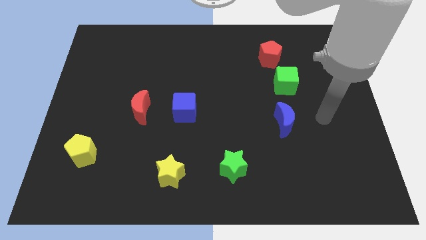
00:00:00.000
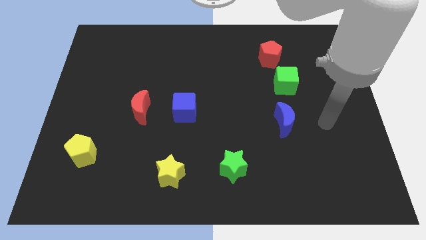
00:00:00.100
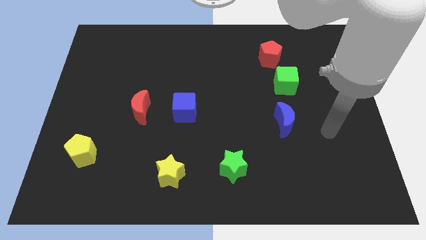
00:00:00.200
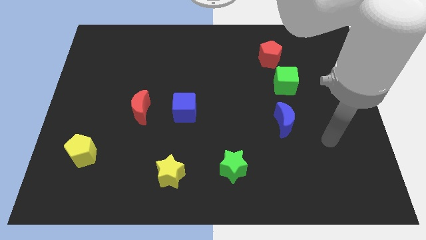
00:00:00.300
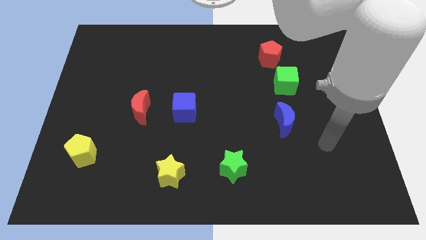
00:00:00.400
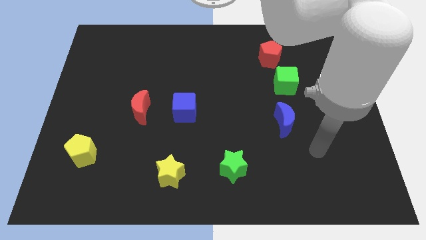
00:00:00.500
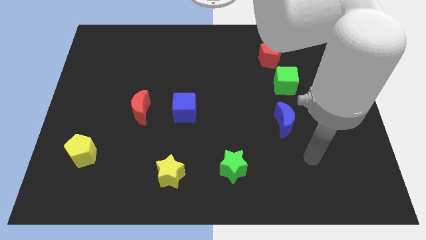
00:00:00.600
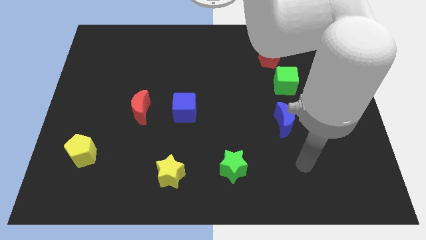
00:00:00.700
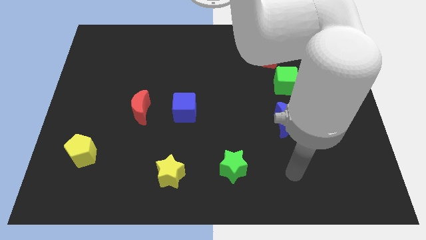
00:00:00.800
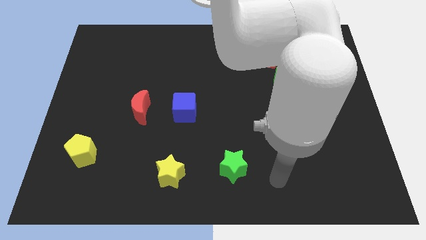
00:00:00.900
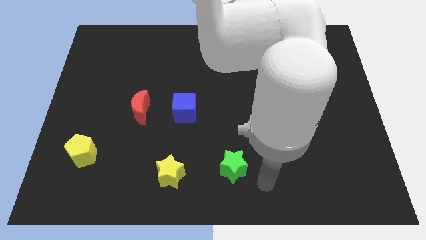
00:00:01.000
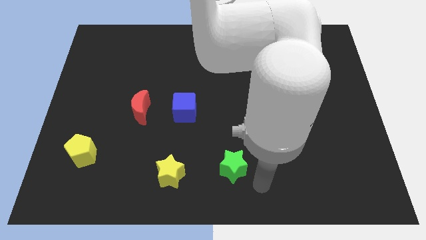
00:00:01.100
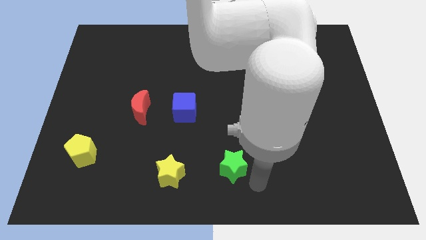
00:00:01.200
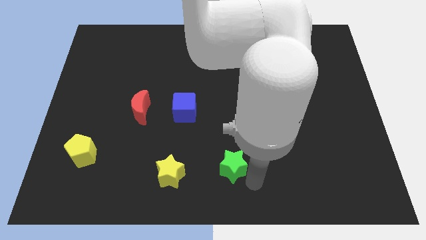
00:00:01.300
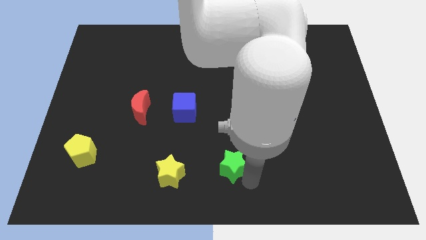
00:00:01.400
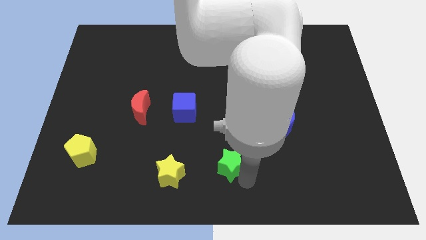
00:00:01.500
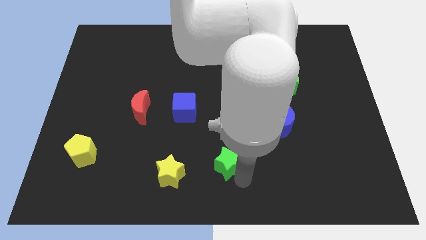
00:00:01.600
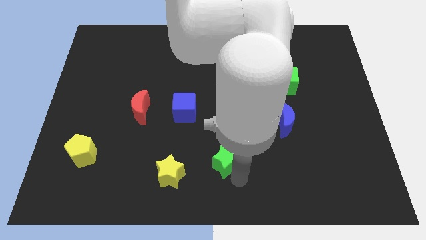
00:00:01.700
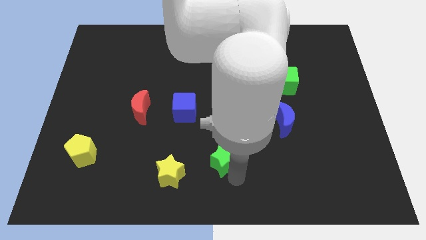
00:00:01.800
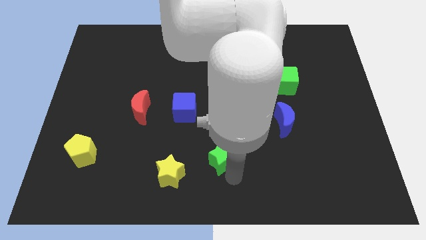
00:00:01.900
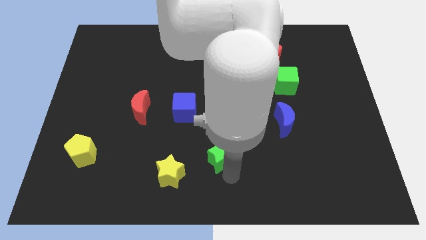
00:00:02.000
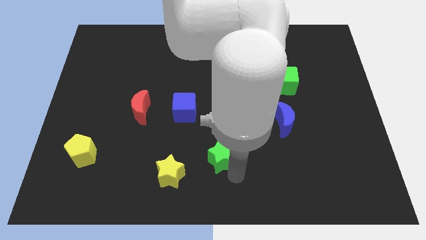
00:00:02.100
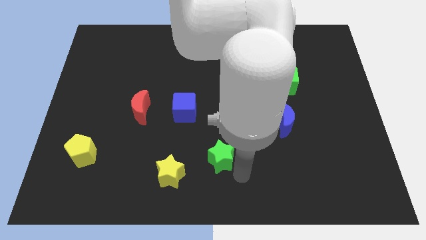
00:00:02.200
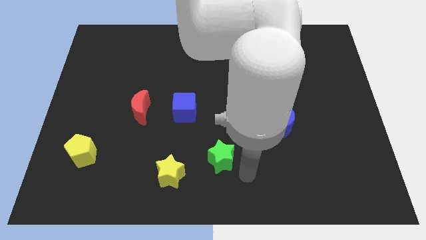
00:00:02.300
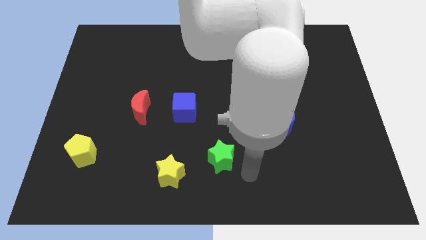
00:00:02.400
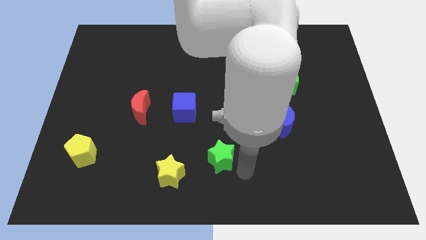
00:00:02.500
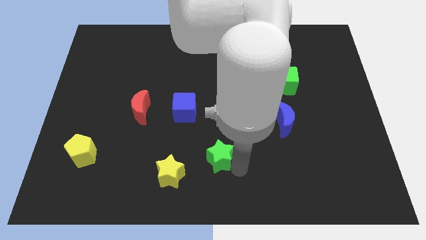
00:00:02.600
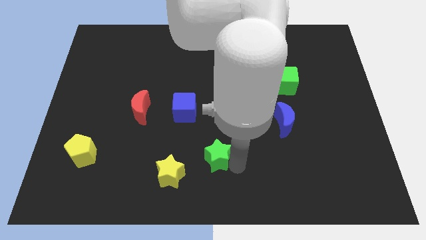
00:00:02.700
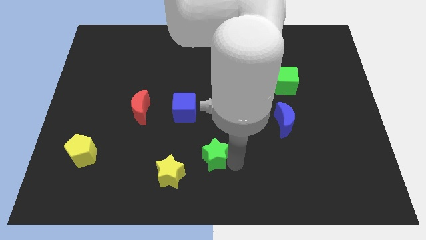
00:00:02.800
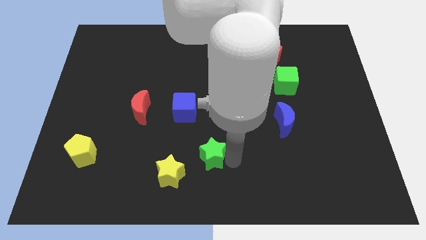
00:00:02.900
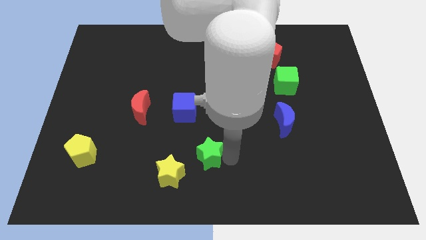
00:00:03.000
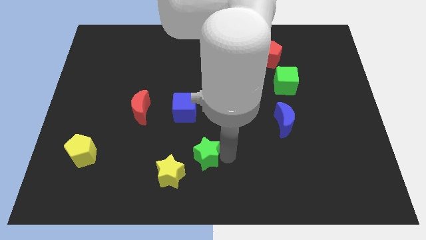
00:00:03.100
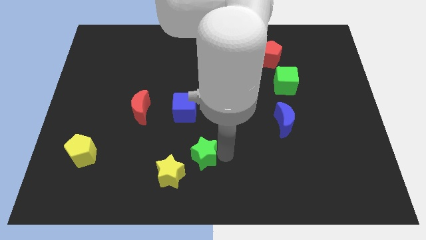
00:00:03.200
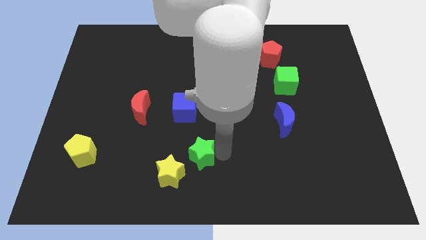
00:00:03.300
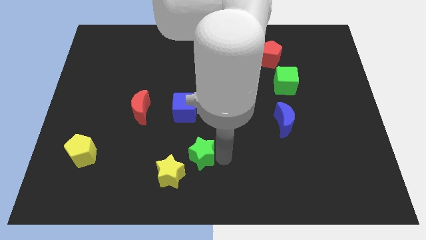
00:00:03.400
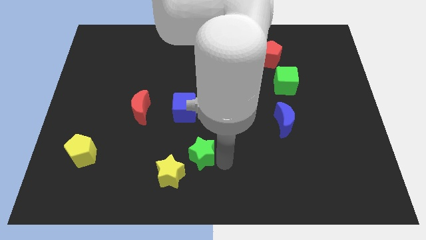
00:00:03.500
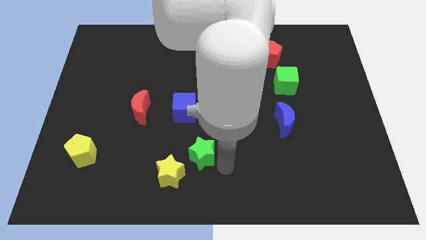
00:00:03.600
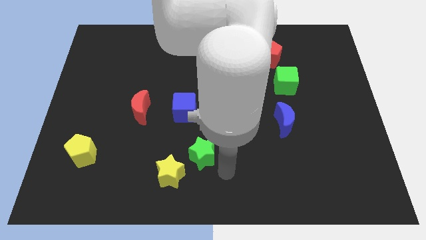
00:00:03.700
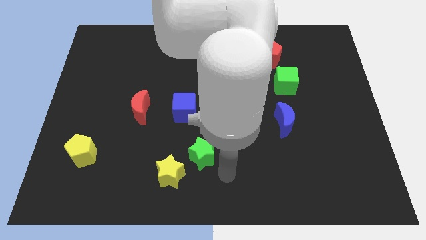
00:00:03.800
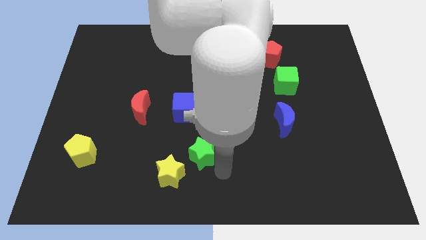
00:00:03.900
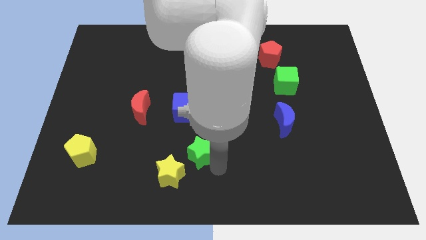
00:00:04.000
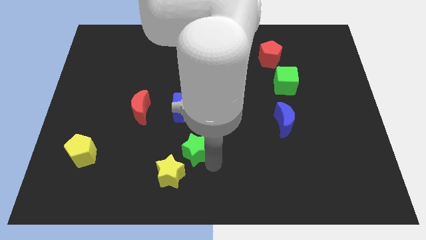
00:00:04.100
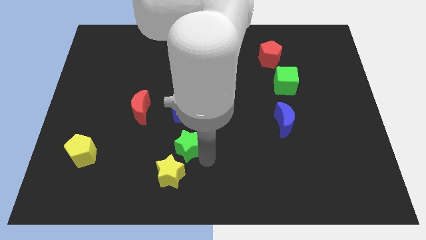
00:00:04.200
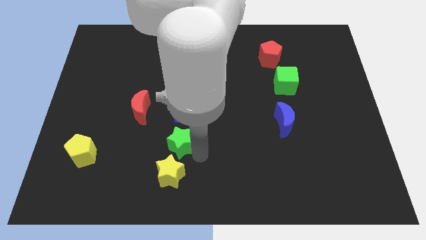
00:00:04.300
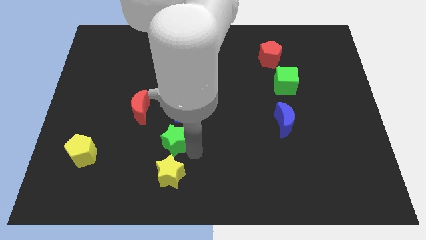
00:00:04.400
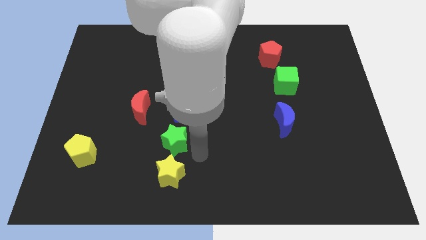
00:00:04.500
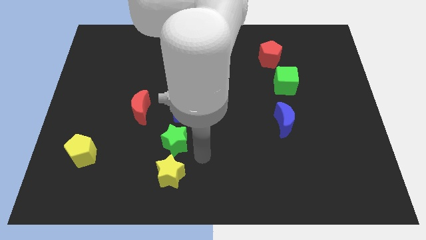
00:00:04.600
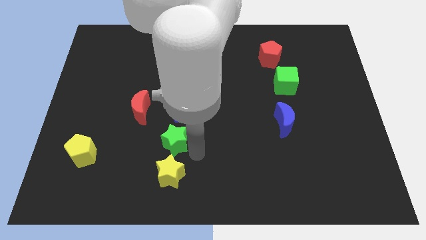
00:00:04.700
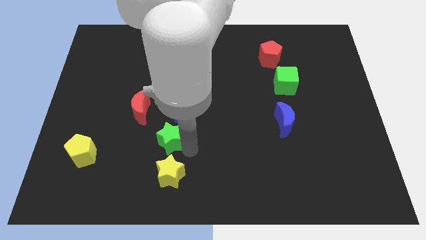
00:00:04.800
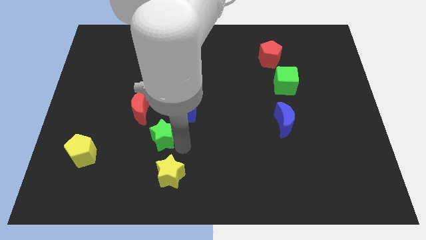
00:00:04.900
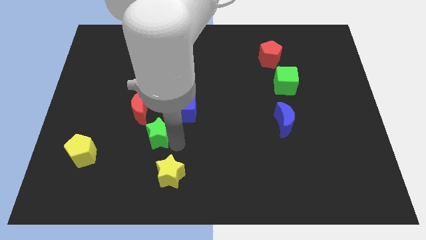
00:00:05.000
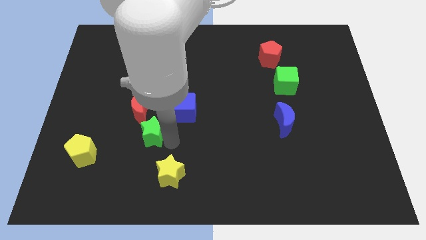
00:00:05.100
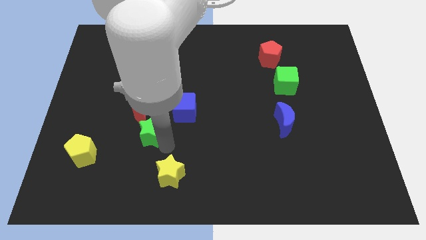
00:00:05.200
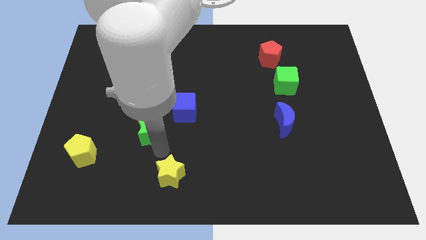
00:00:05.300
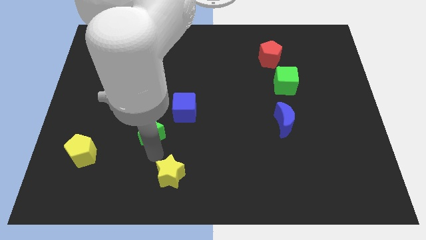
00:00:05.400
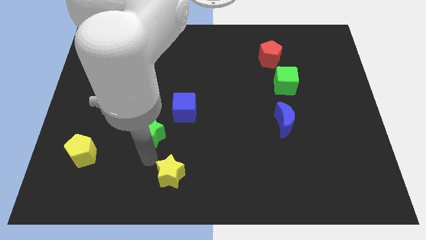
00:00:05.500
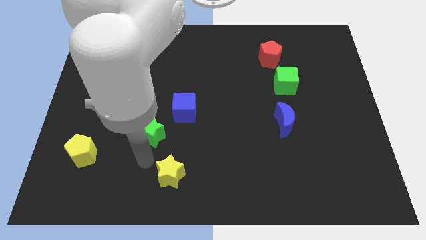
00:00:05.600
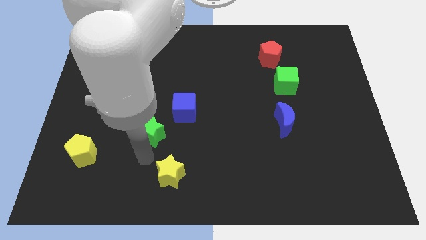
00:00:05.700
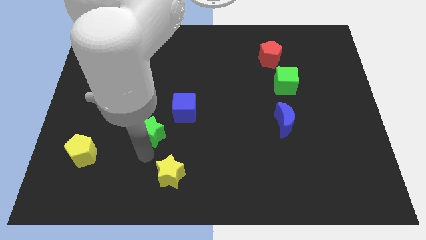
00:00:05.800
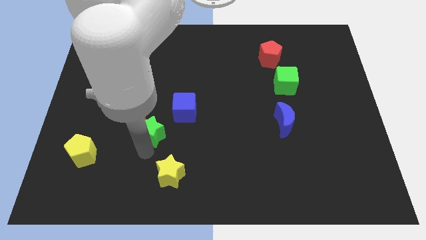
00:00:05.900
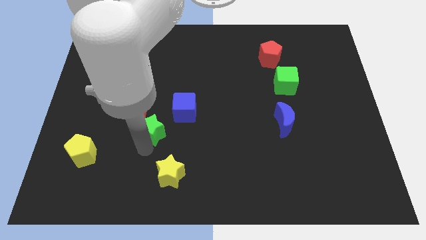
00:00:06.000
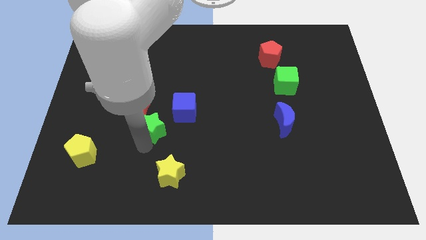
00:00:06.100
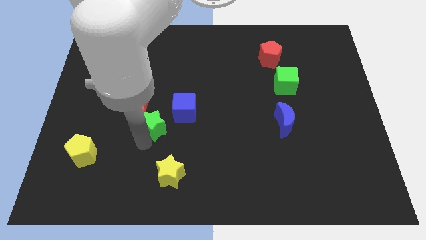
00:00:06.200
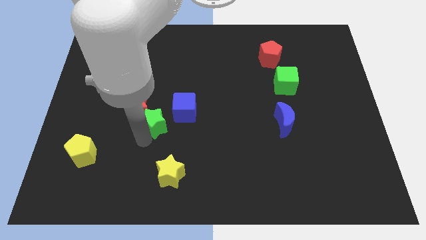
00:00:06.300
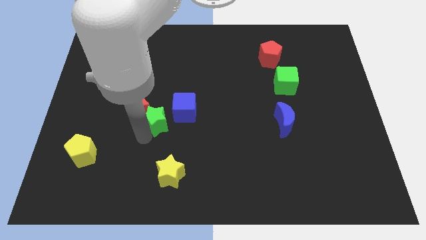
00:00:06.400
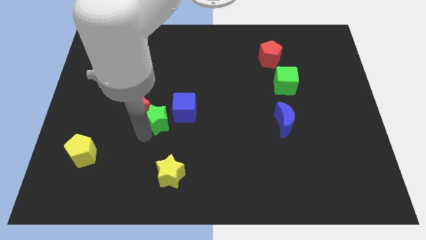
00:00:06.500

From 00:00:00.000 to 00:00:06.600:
push the green star up and left

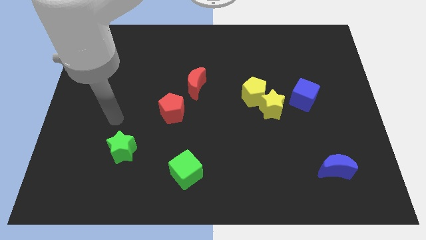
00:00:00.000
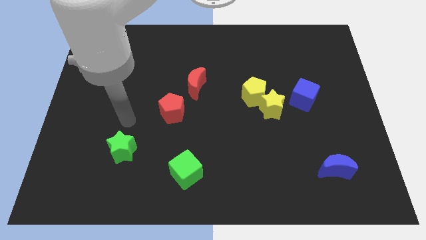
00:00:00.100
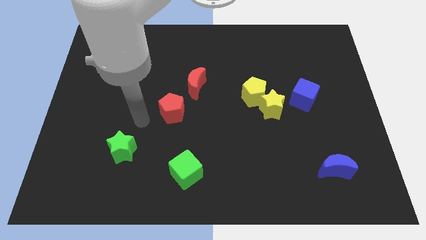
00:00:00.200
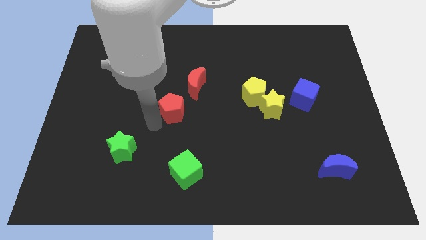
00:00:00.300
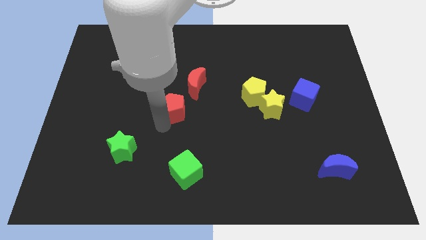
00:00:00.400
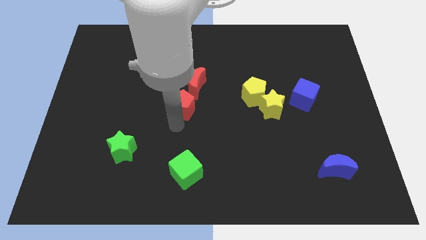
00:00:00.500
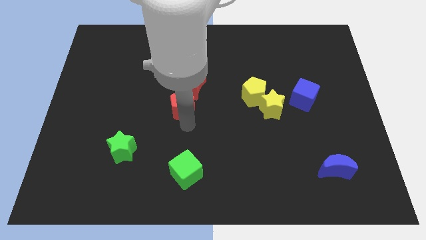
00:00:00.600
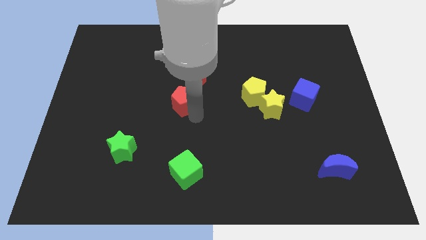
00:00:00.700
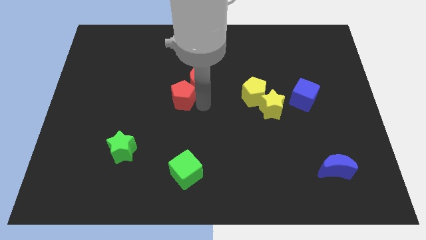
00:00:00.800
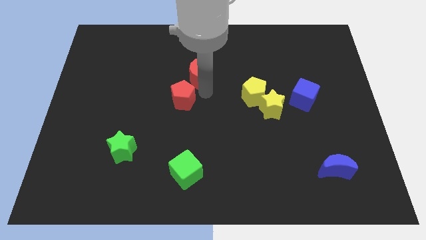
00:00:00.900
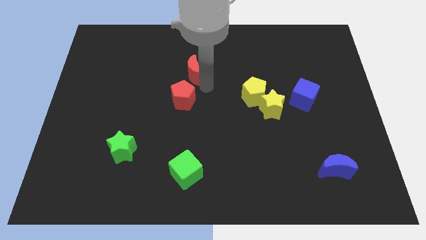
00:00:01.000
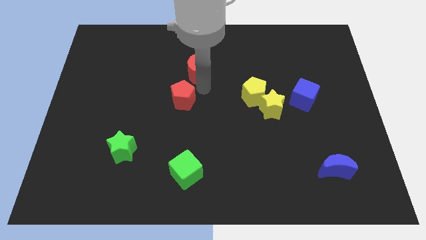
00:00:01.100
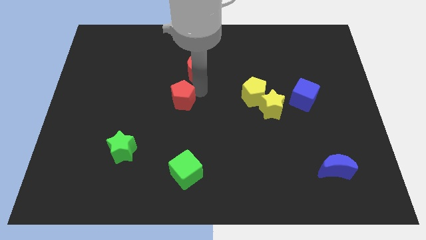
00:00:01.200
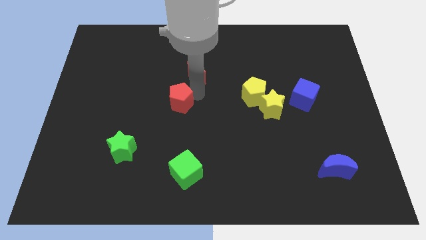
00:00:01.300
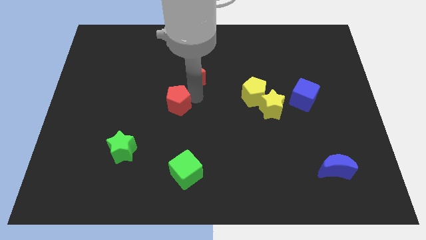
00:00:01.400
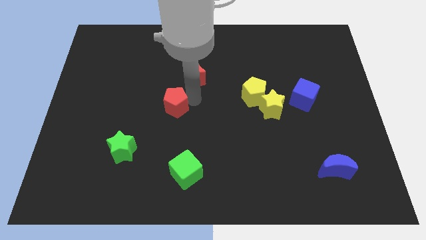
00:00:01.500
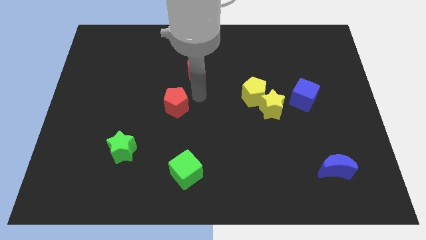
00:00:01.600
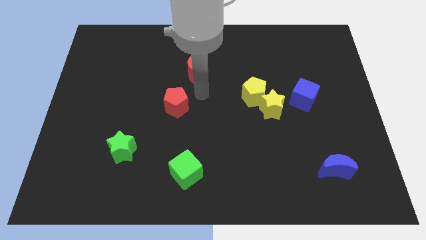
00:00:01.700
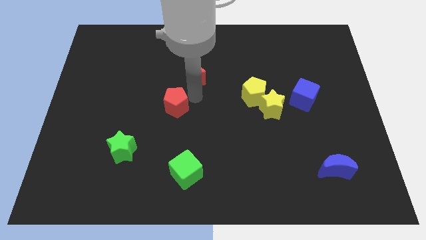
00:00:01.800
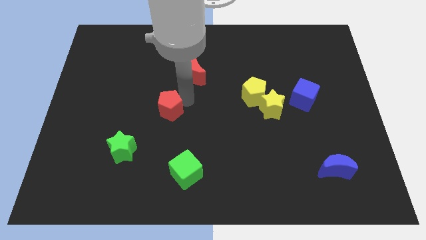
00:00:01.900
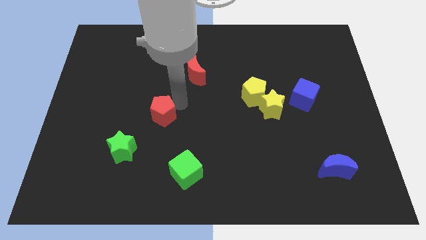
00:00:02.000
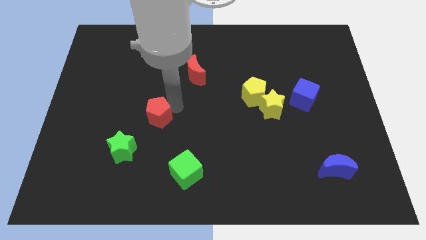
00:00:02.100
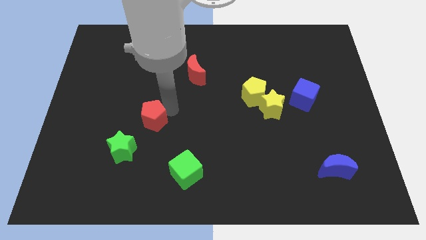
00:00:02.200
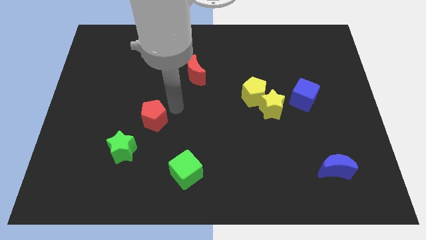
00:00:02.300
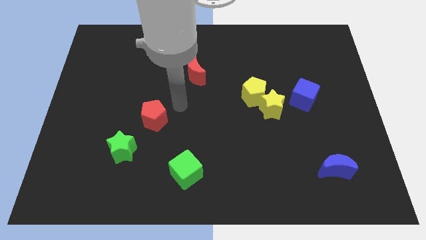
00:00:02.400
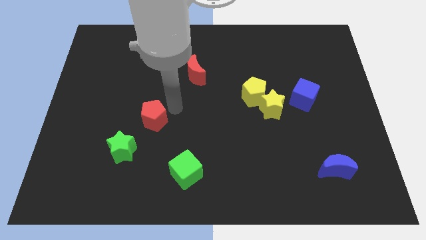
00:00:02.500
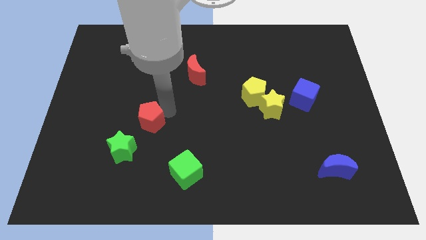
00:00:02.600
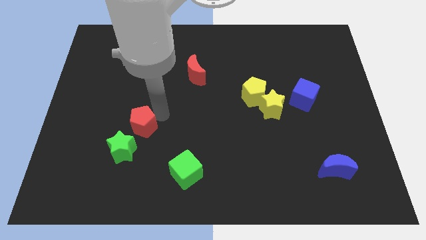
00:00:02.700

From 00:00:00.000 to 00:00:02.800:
slide the red pentagon a little diagonally down and left
